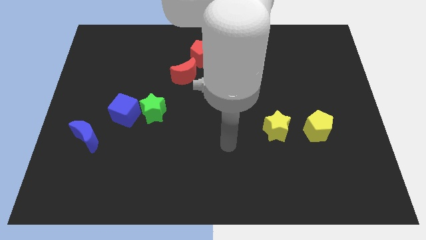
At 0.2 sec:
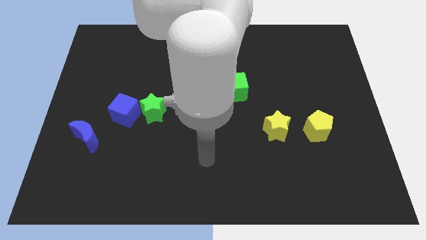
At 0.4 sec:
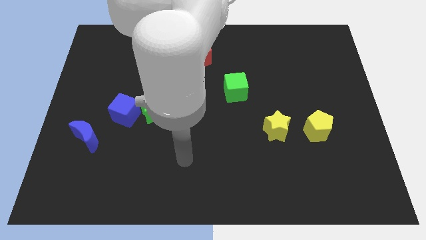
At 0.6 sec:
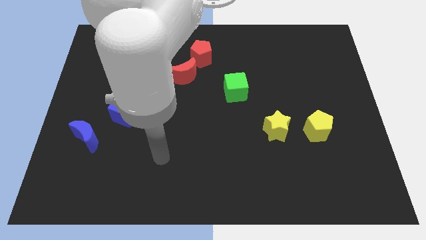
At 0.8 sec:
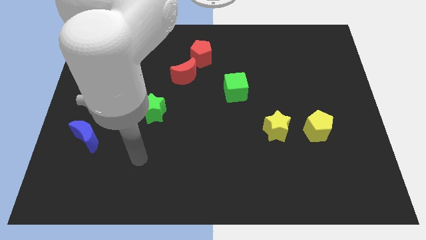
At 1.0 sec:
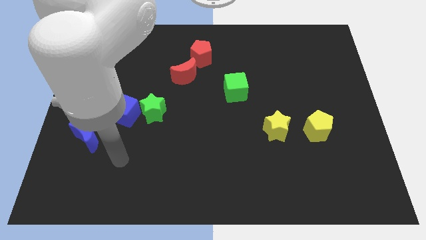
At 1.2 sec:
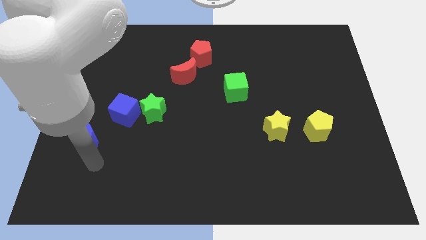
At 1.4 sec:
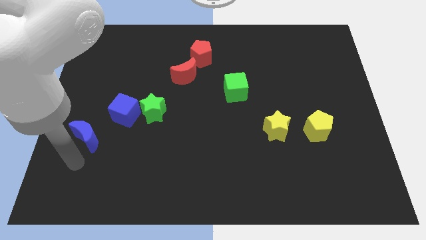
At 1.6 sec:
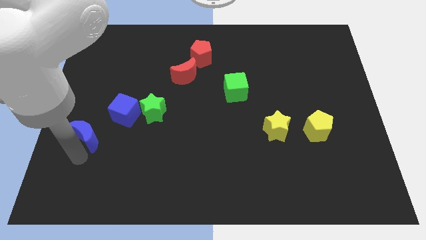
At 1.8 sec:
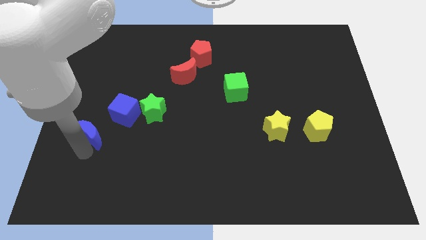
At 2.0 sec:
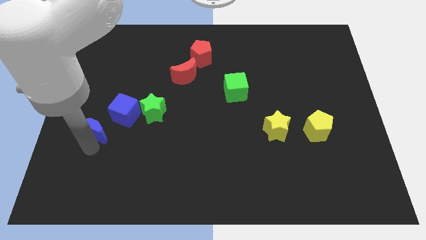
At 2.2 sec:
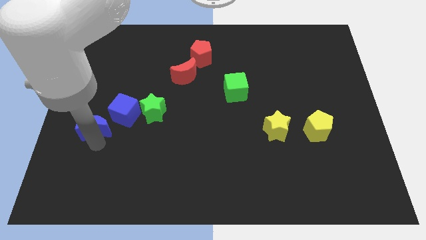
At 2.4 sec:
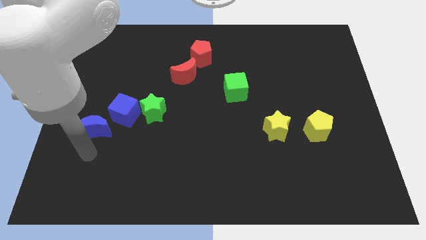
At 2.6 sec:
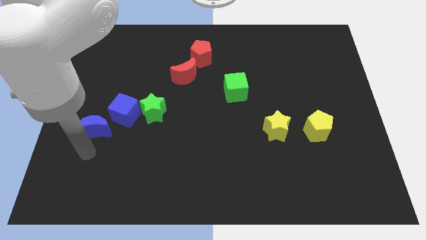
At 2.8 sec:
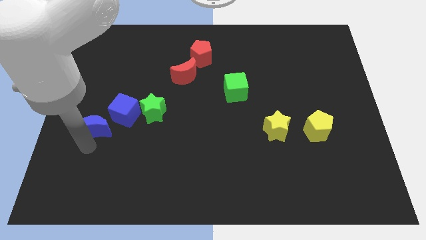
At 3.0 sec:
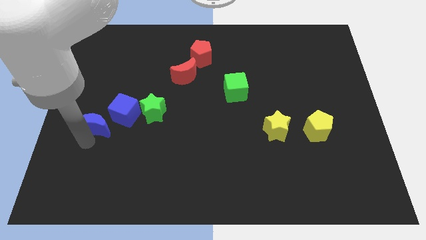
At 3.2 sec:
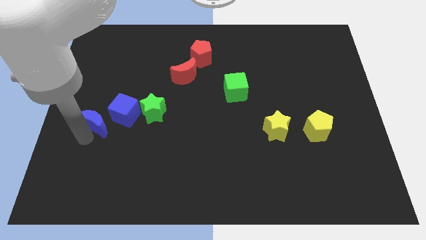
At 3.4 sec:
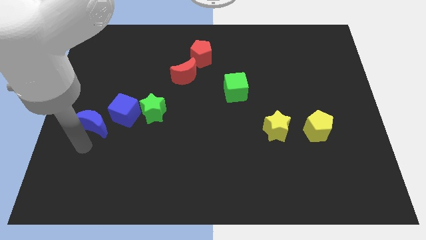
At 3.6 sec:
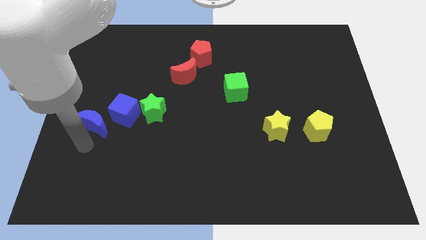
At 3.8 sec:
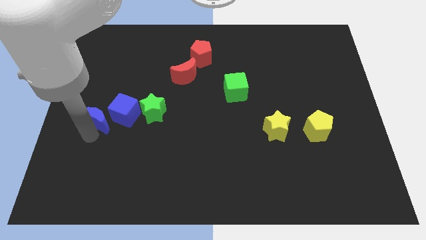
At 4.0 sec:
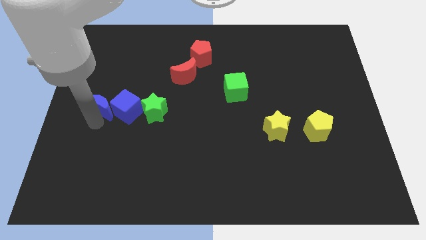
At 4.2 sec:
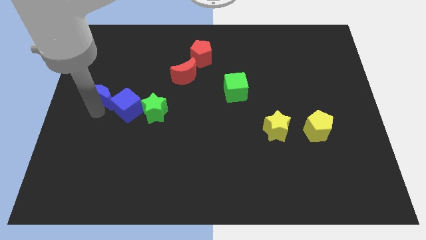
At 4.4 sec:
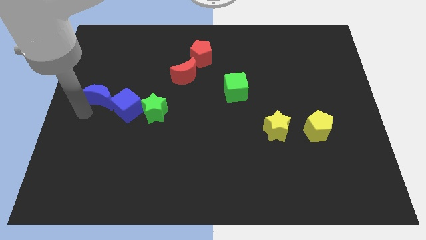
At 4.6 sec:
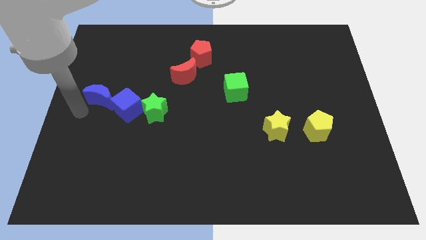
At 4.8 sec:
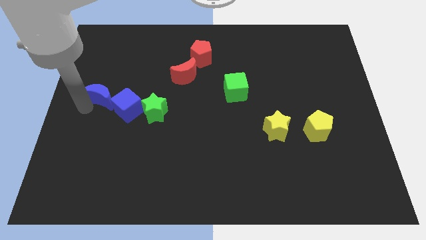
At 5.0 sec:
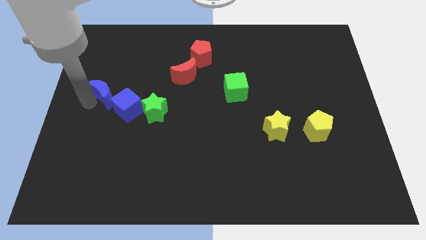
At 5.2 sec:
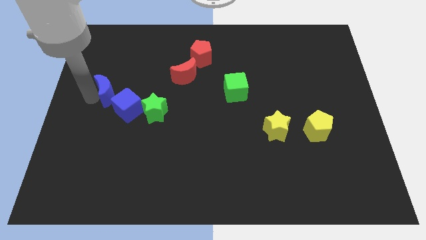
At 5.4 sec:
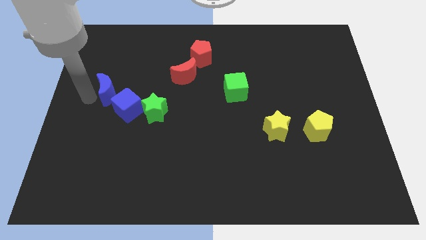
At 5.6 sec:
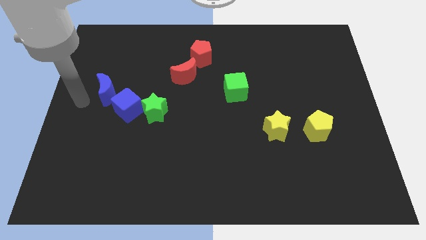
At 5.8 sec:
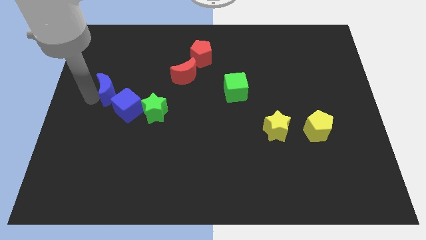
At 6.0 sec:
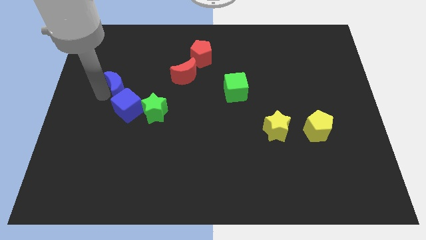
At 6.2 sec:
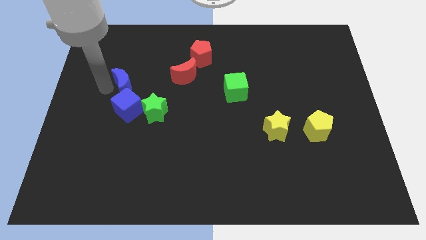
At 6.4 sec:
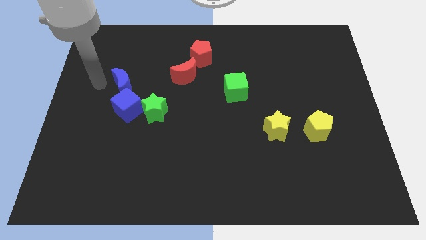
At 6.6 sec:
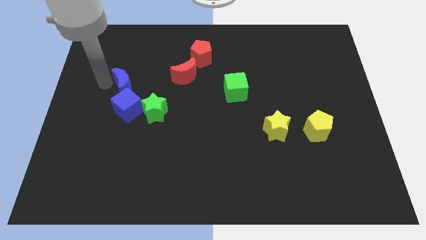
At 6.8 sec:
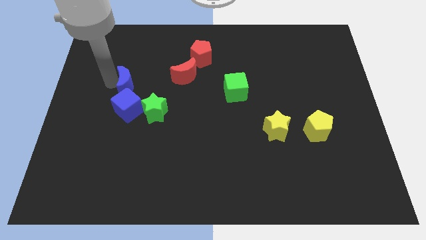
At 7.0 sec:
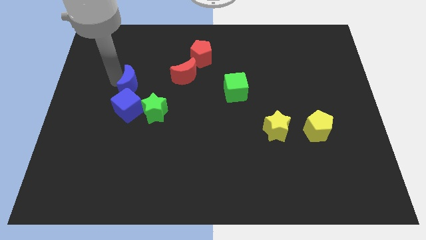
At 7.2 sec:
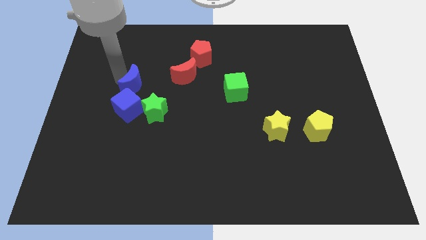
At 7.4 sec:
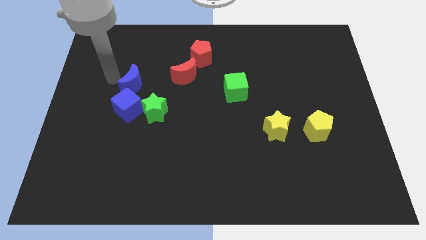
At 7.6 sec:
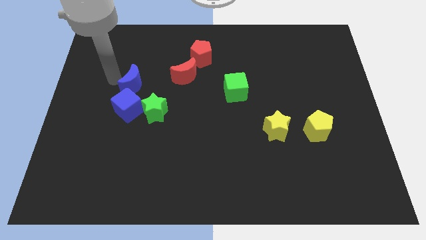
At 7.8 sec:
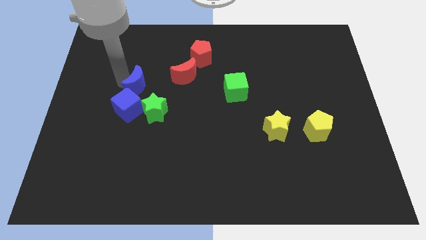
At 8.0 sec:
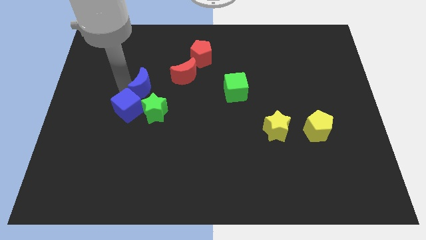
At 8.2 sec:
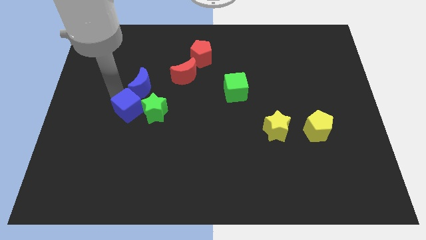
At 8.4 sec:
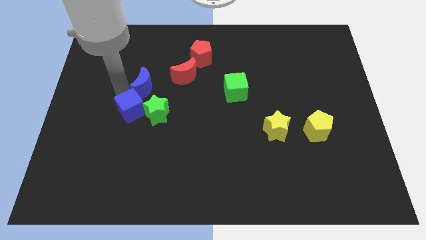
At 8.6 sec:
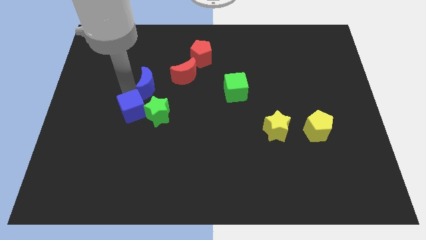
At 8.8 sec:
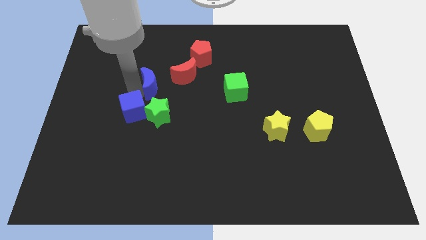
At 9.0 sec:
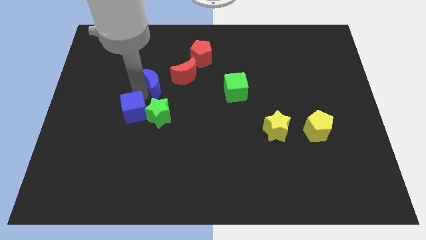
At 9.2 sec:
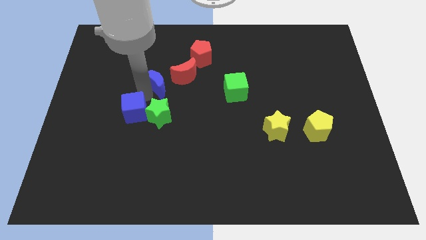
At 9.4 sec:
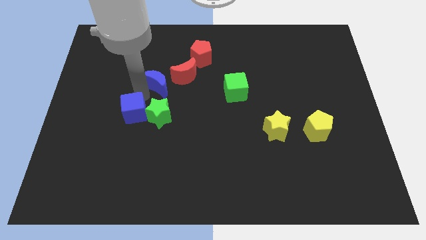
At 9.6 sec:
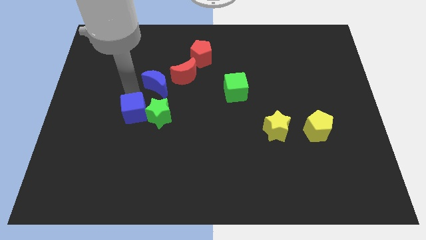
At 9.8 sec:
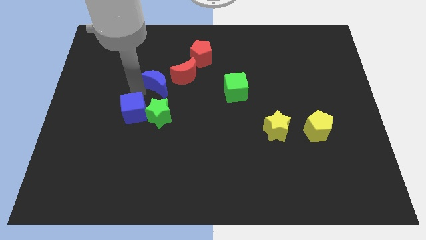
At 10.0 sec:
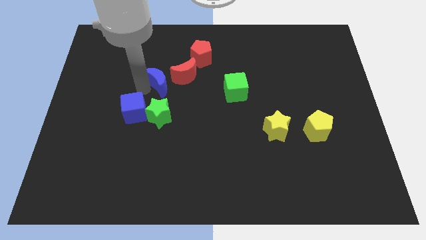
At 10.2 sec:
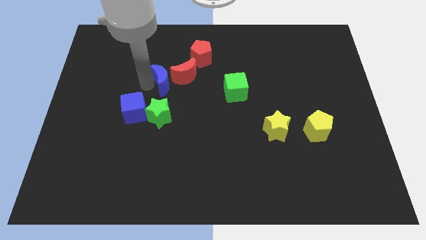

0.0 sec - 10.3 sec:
slide the blue moon next to the red moon

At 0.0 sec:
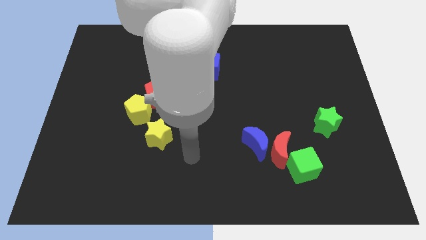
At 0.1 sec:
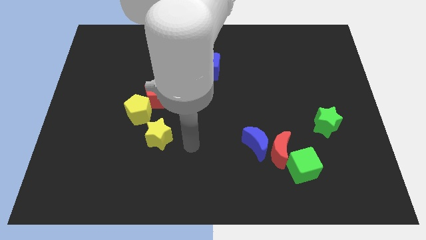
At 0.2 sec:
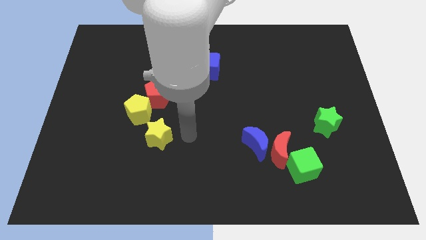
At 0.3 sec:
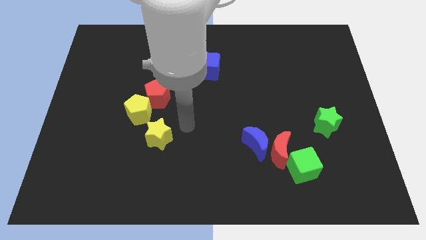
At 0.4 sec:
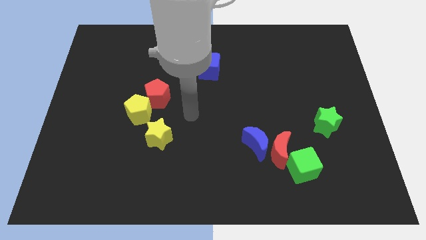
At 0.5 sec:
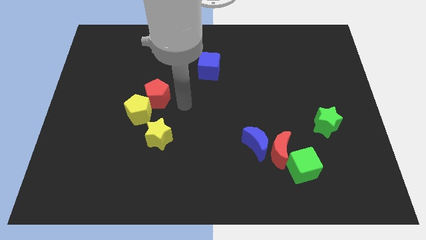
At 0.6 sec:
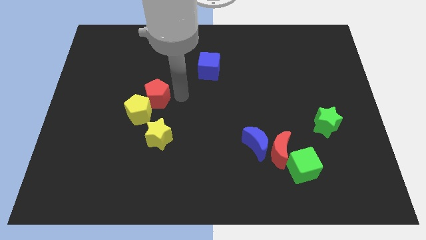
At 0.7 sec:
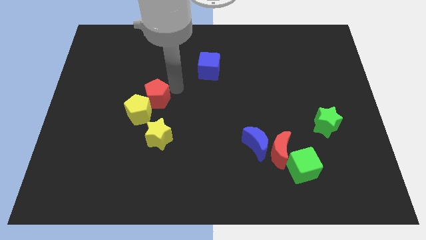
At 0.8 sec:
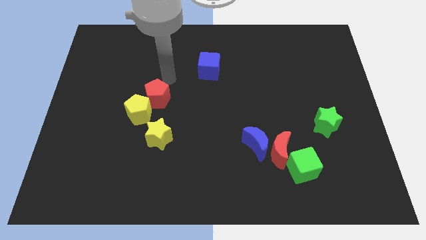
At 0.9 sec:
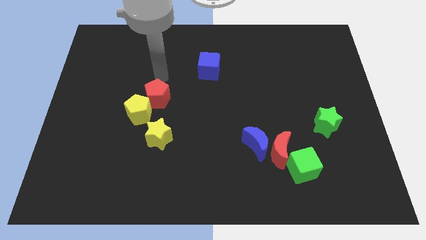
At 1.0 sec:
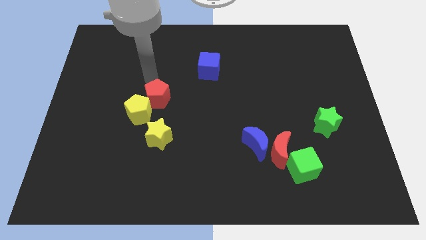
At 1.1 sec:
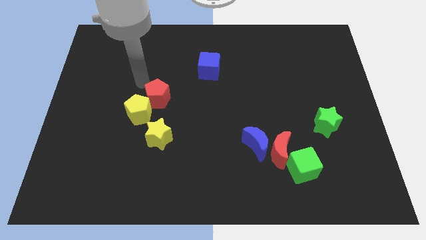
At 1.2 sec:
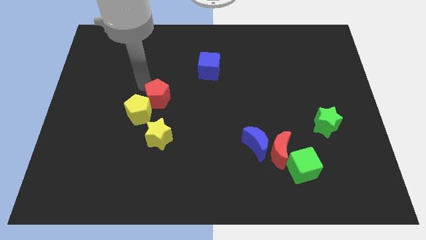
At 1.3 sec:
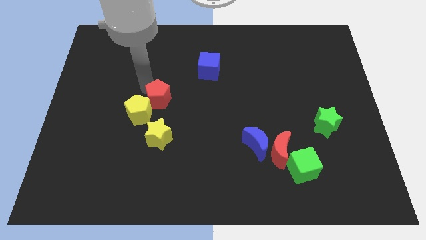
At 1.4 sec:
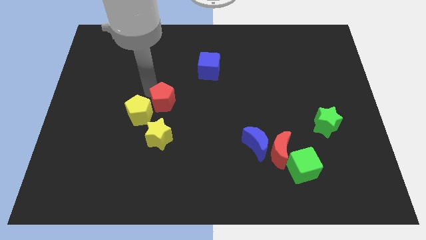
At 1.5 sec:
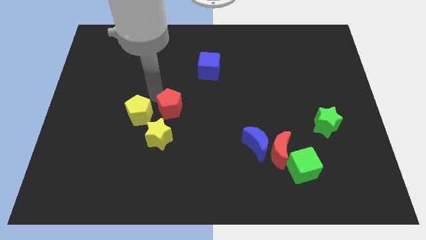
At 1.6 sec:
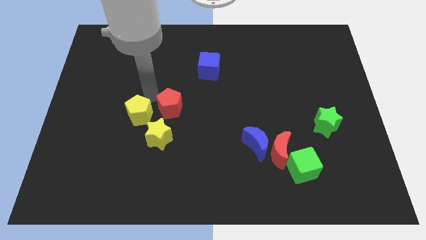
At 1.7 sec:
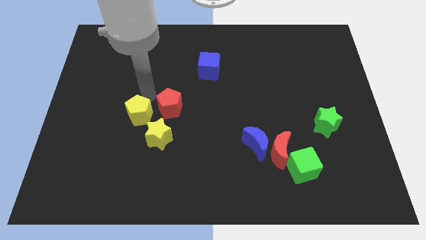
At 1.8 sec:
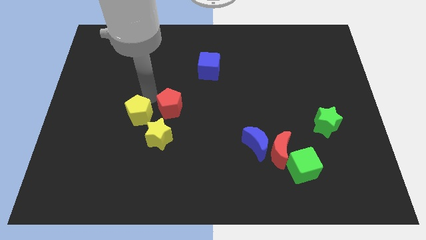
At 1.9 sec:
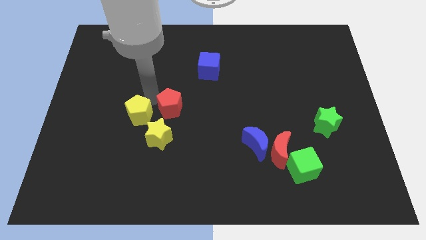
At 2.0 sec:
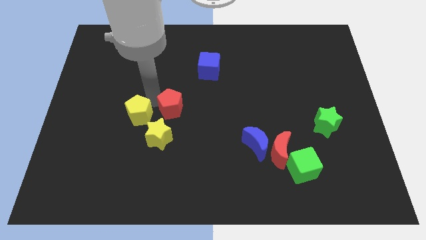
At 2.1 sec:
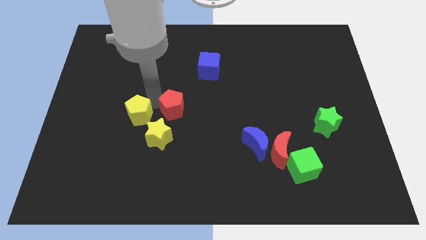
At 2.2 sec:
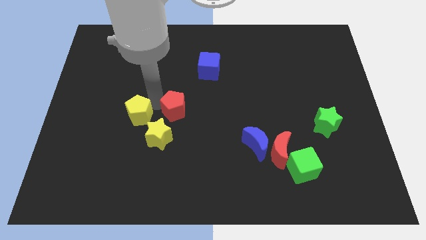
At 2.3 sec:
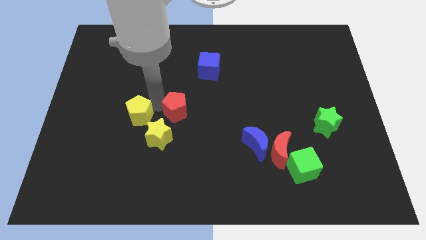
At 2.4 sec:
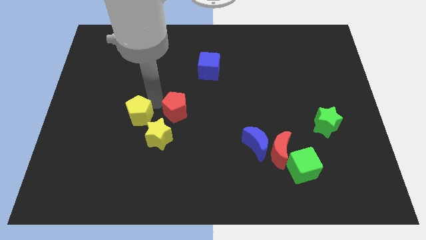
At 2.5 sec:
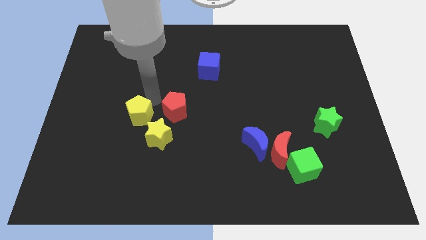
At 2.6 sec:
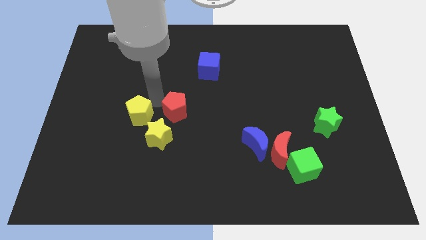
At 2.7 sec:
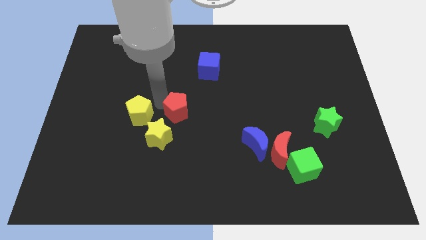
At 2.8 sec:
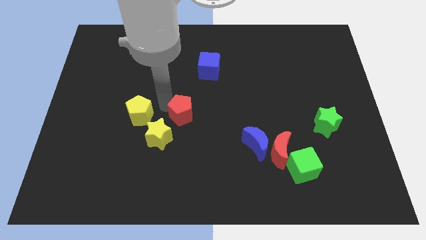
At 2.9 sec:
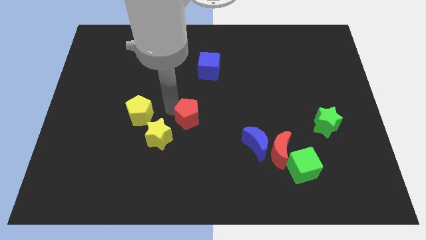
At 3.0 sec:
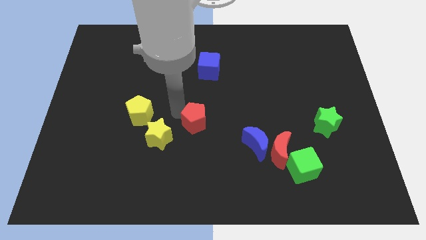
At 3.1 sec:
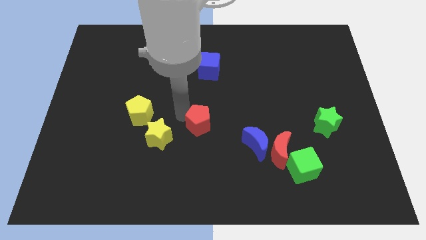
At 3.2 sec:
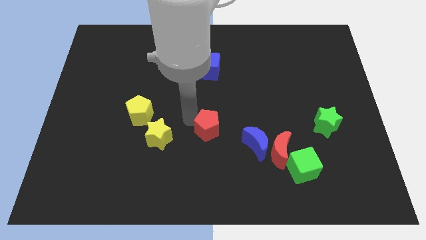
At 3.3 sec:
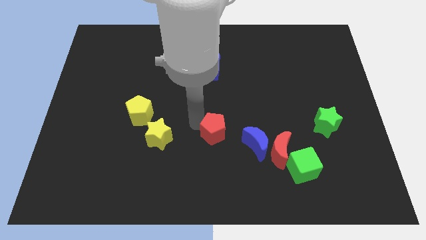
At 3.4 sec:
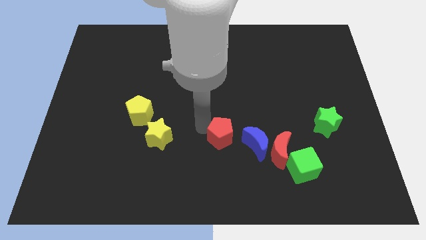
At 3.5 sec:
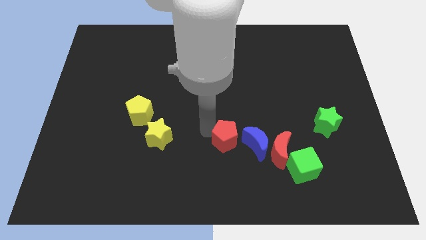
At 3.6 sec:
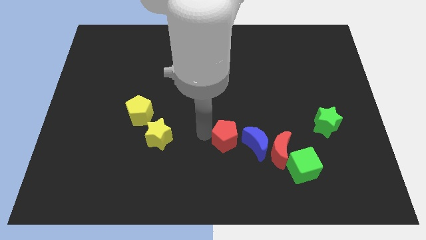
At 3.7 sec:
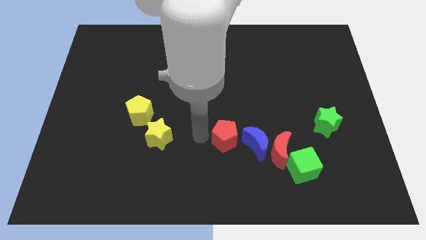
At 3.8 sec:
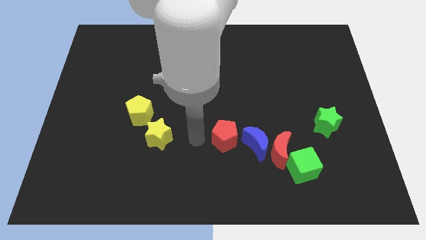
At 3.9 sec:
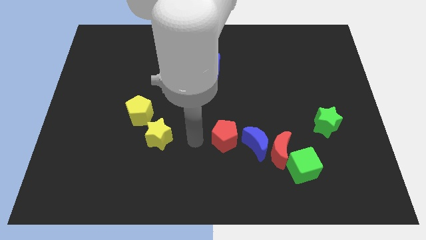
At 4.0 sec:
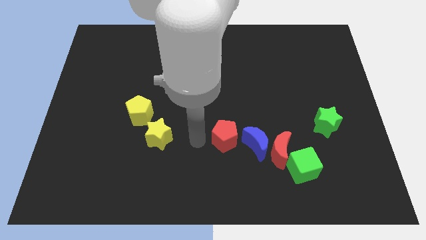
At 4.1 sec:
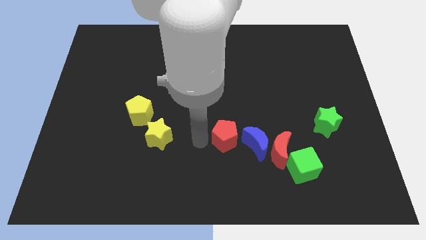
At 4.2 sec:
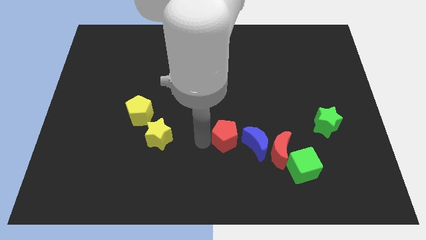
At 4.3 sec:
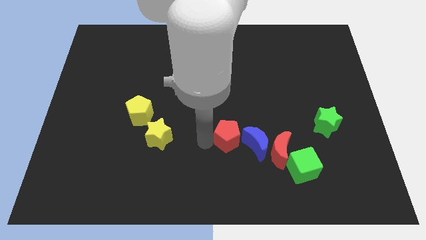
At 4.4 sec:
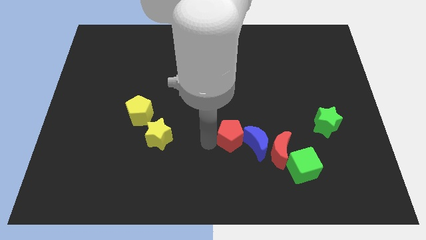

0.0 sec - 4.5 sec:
move the red pentagon close to the blue moon
